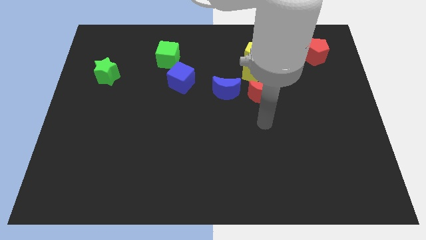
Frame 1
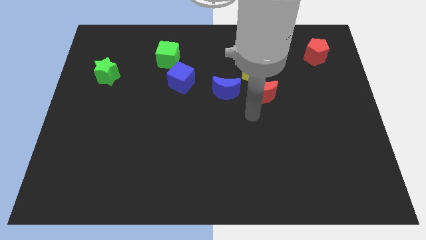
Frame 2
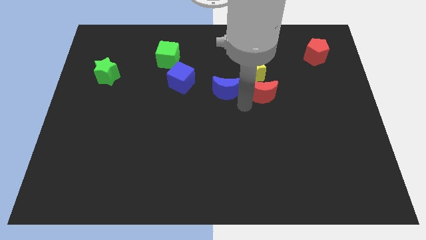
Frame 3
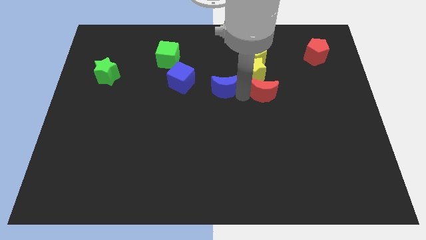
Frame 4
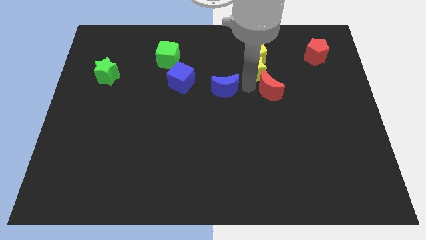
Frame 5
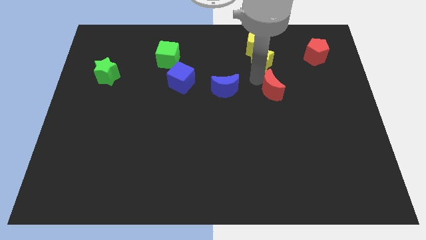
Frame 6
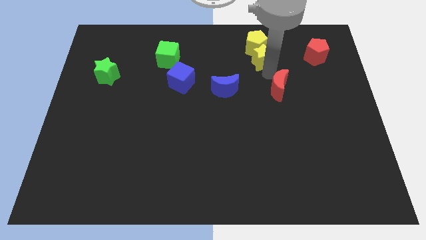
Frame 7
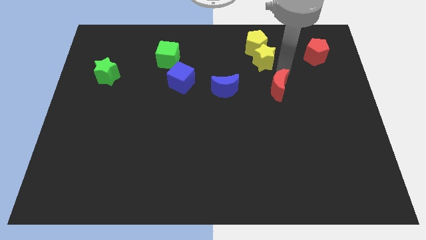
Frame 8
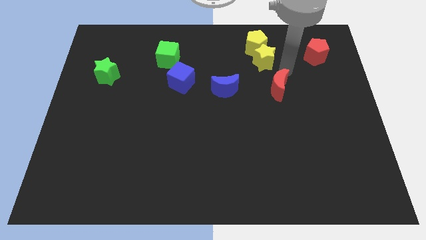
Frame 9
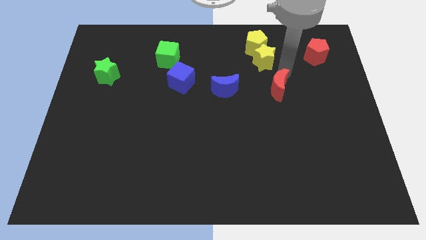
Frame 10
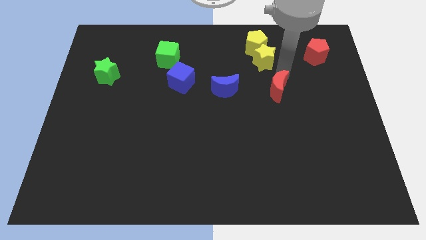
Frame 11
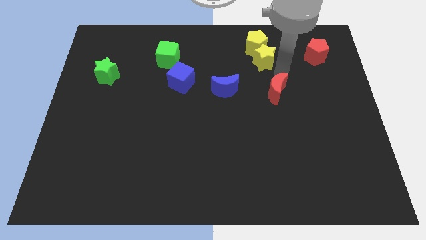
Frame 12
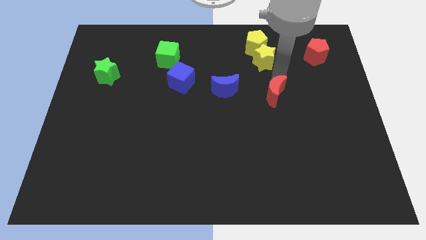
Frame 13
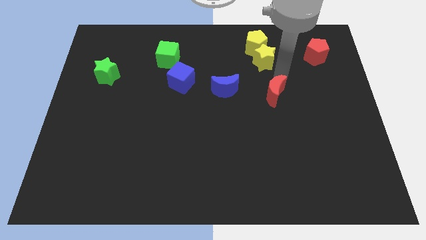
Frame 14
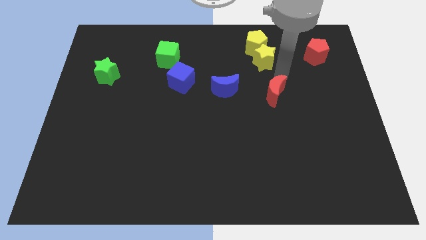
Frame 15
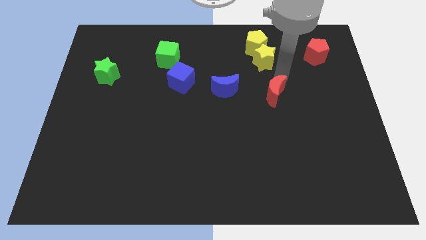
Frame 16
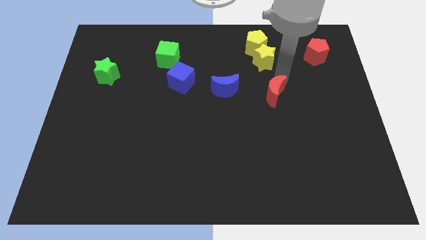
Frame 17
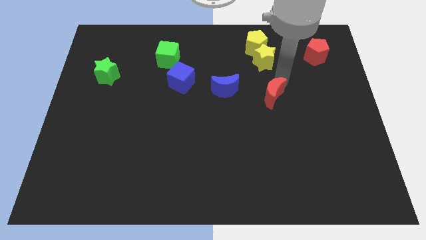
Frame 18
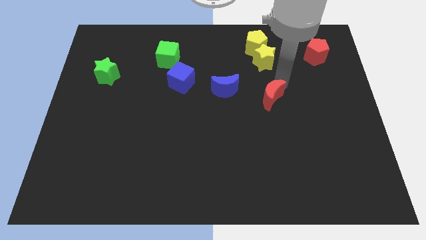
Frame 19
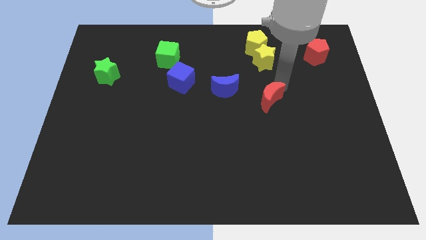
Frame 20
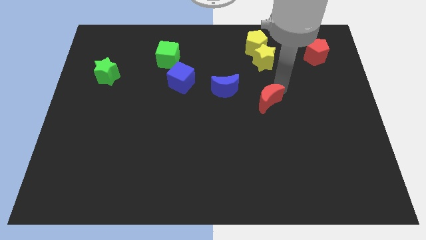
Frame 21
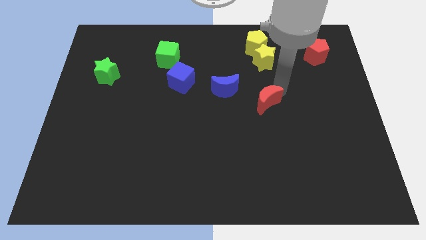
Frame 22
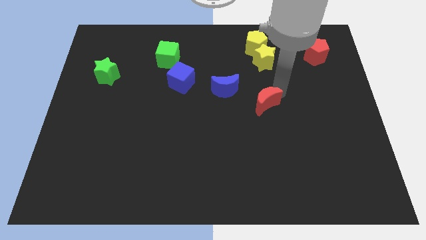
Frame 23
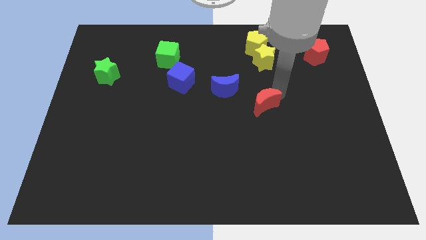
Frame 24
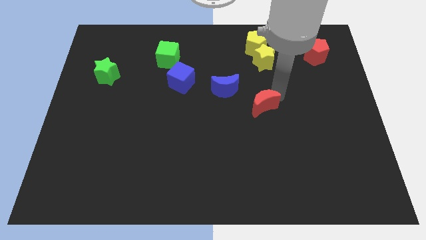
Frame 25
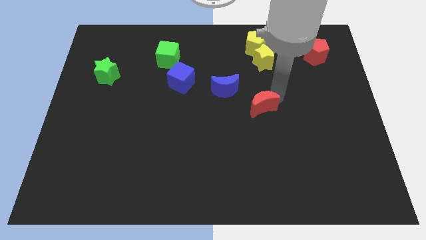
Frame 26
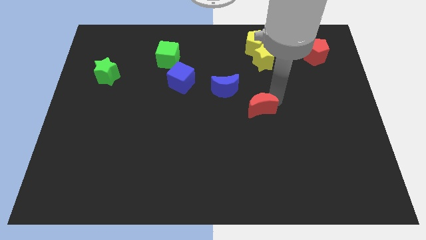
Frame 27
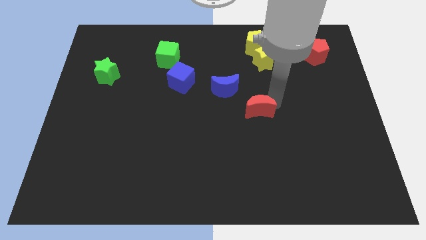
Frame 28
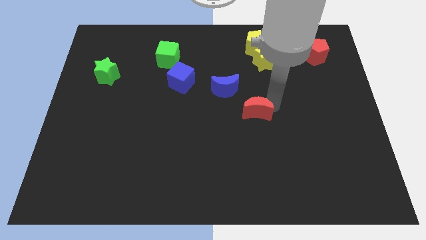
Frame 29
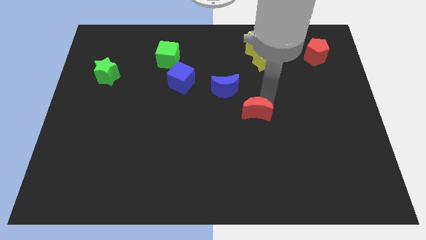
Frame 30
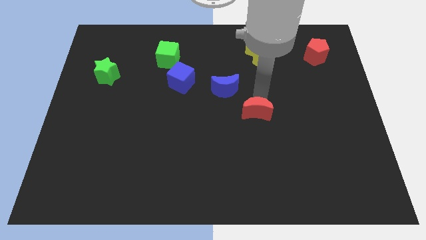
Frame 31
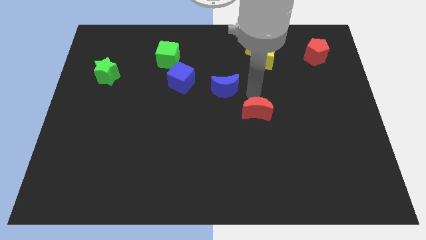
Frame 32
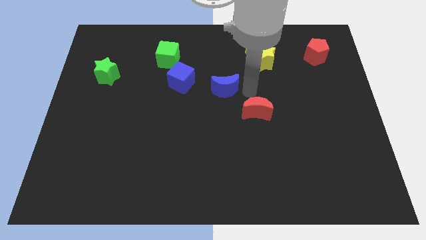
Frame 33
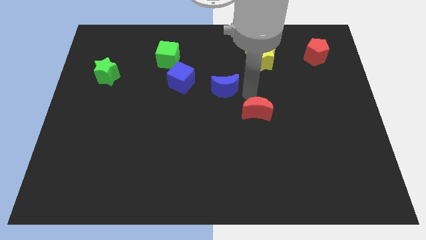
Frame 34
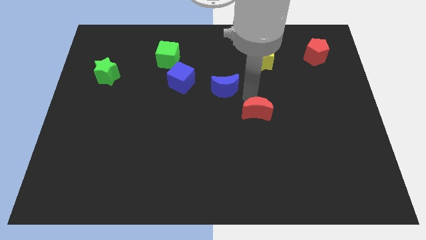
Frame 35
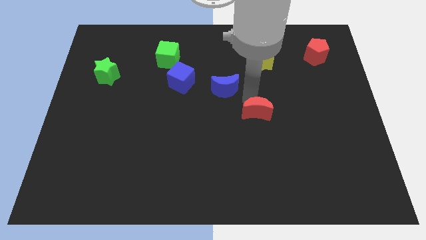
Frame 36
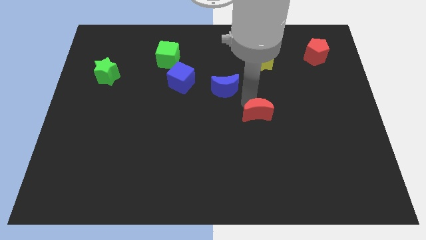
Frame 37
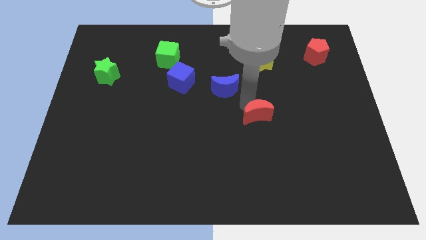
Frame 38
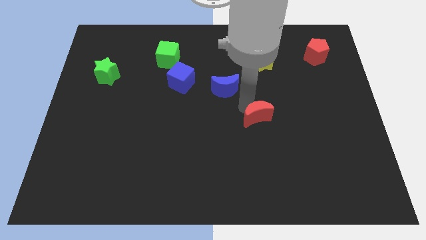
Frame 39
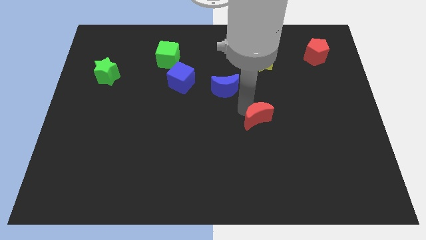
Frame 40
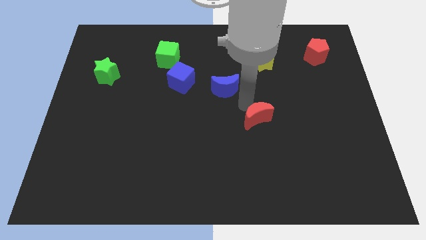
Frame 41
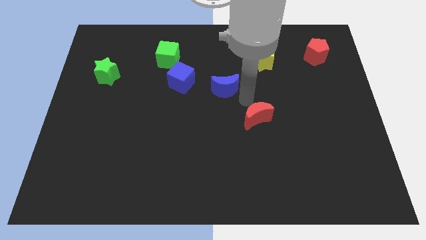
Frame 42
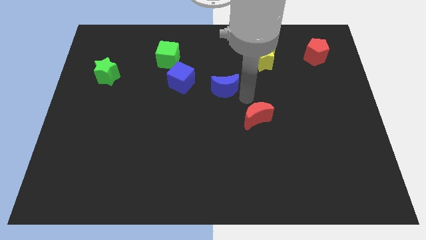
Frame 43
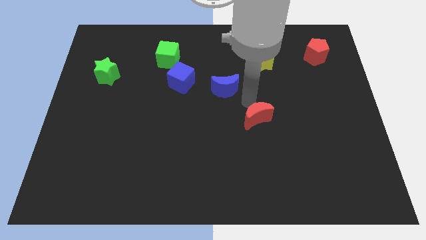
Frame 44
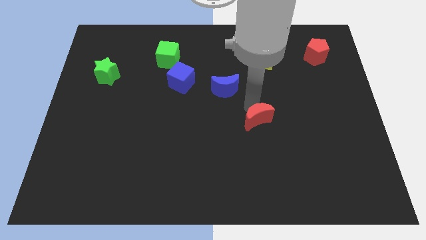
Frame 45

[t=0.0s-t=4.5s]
slide the red moon downwards slightly

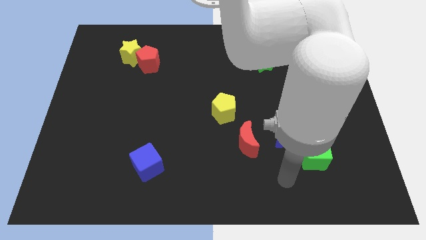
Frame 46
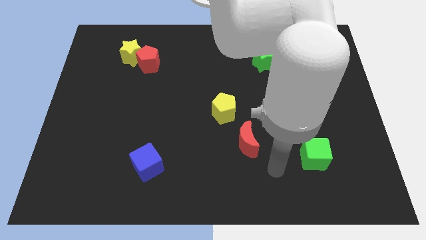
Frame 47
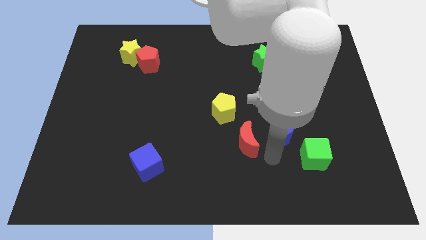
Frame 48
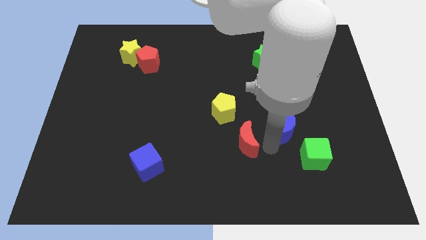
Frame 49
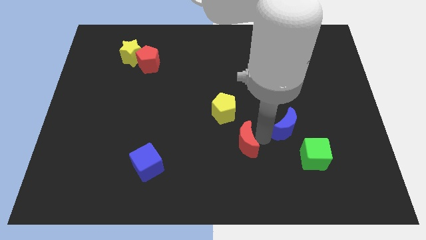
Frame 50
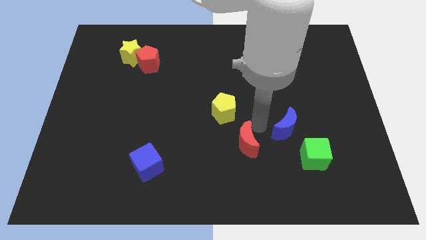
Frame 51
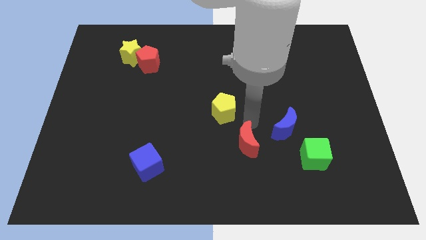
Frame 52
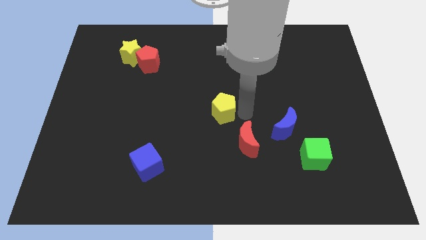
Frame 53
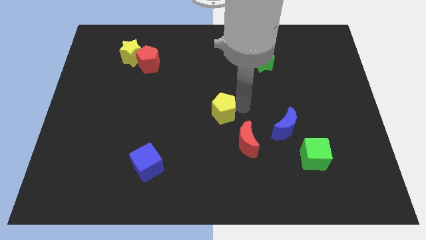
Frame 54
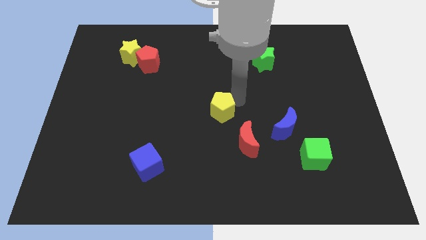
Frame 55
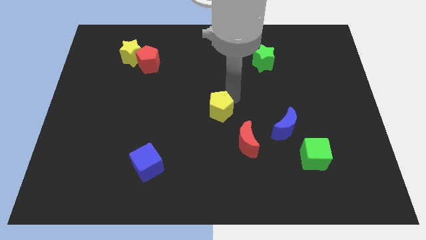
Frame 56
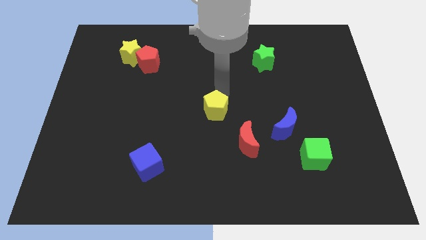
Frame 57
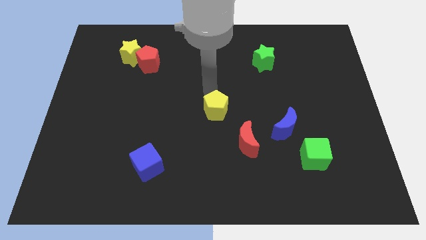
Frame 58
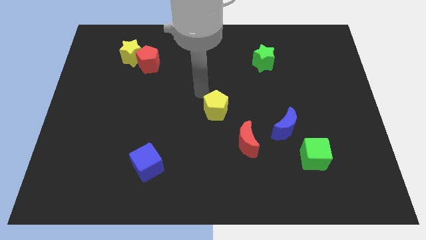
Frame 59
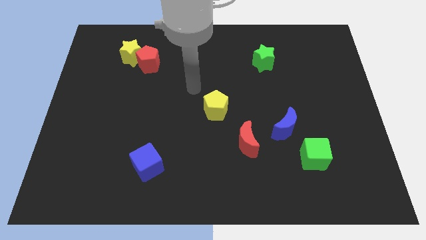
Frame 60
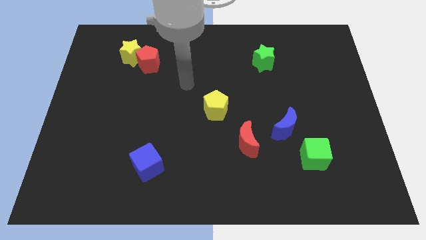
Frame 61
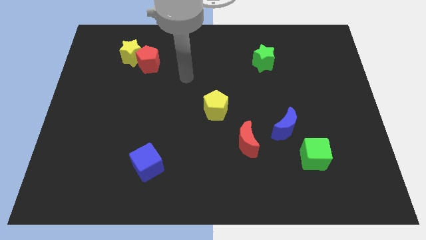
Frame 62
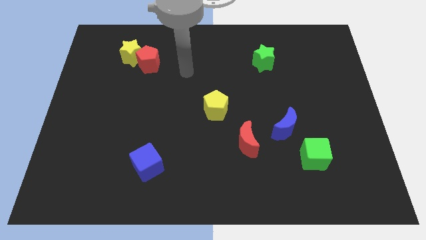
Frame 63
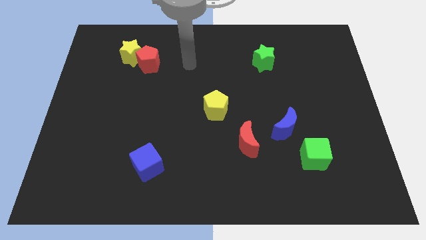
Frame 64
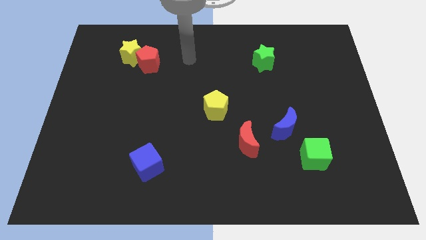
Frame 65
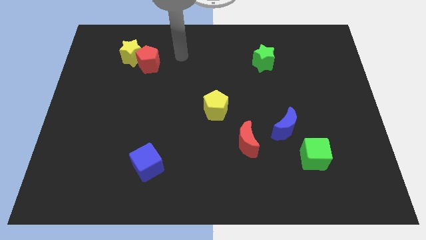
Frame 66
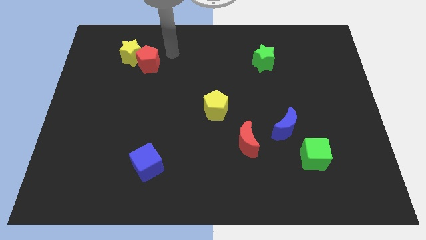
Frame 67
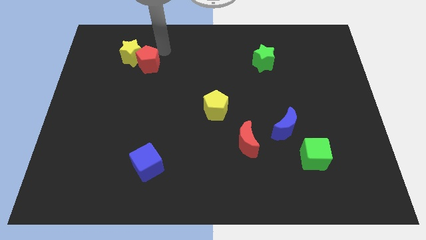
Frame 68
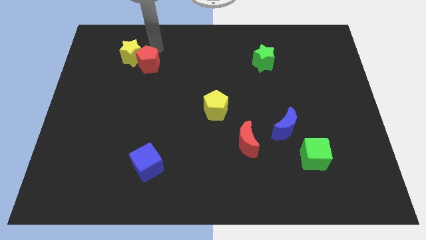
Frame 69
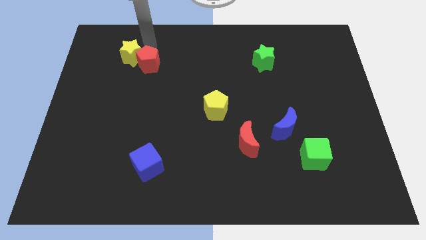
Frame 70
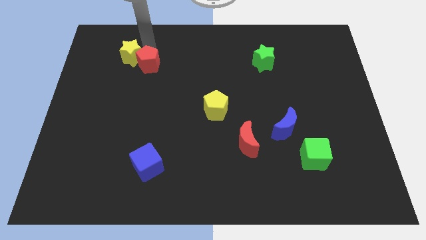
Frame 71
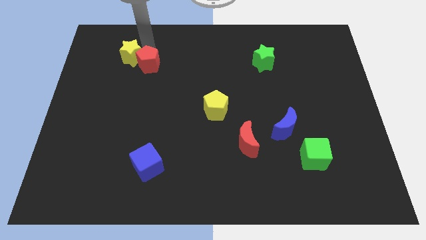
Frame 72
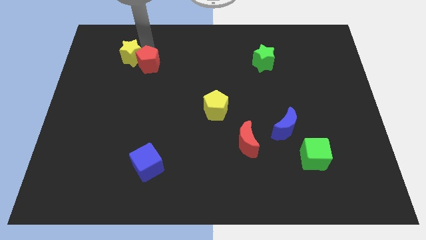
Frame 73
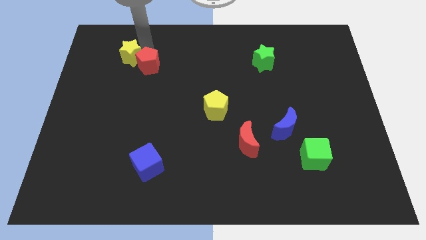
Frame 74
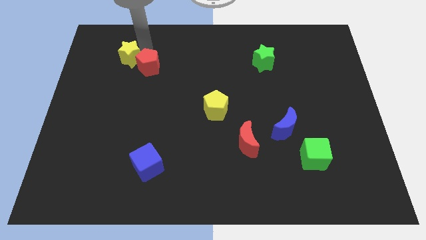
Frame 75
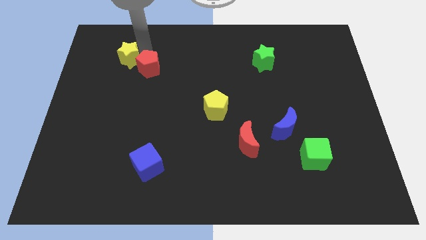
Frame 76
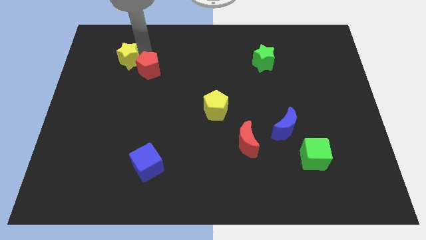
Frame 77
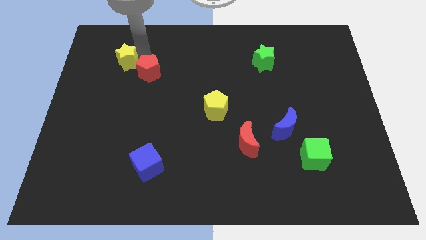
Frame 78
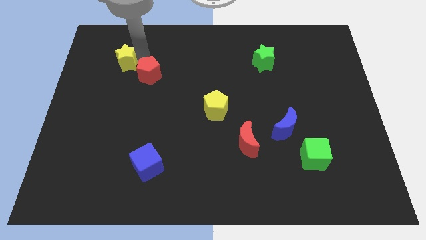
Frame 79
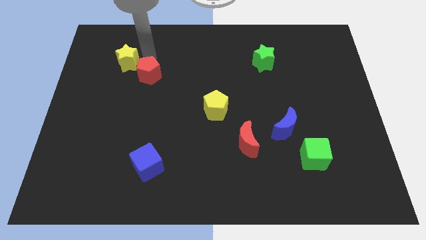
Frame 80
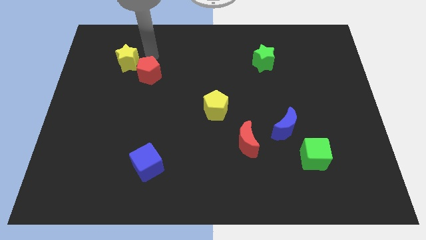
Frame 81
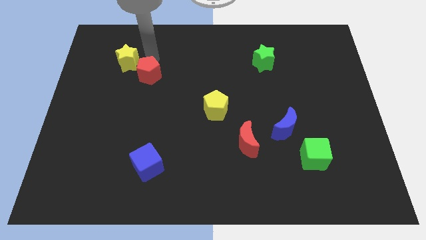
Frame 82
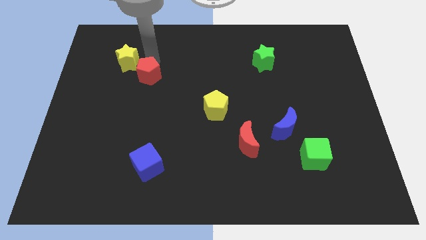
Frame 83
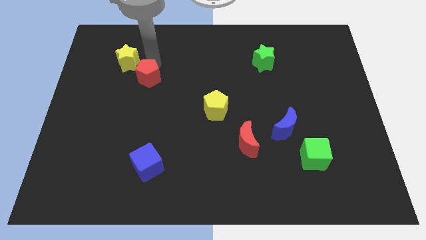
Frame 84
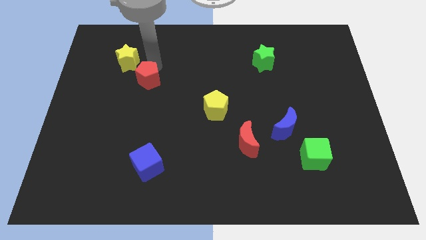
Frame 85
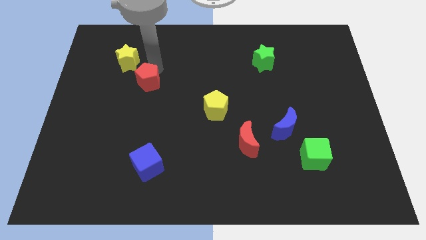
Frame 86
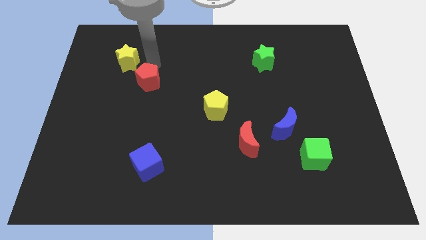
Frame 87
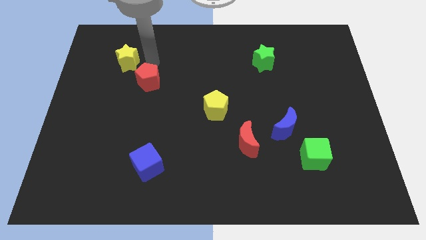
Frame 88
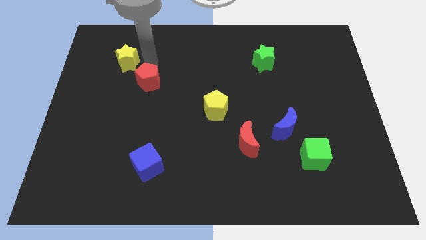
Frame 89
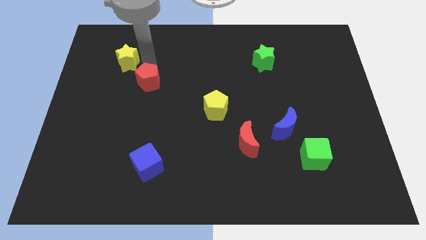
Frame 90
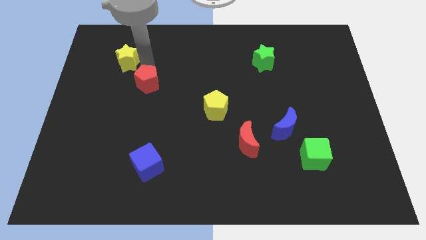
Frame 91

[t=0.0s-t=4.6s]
push the red pentagon down a bit
